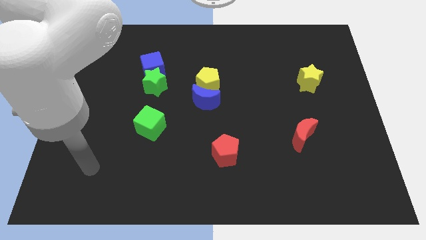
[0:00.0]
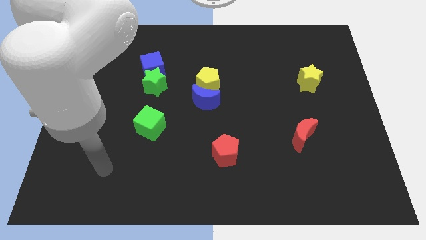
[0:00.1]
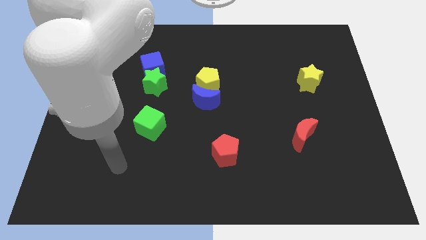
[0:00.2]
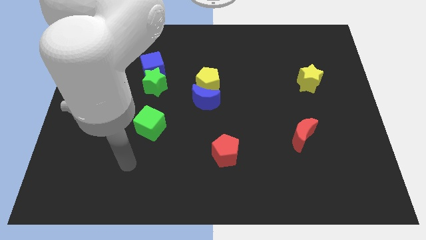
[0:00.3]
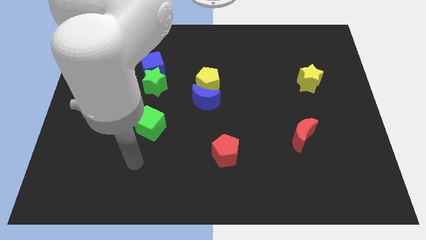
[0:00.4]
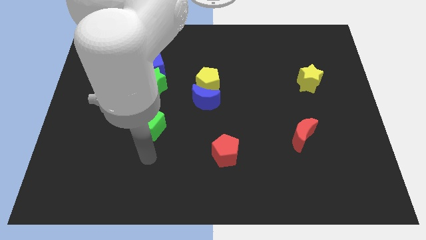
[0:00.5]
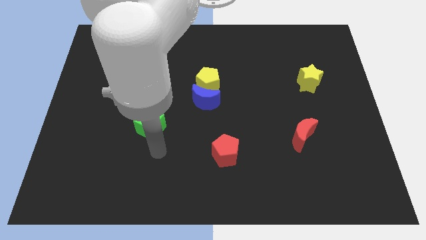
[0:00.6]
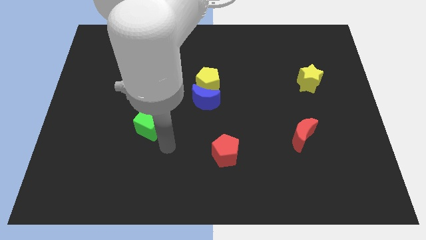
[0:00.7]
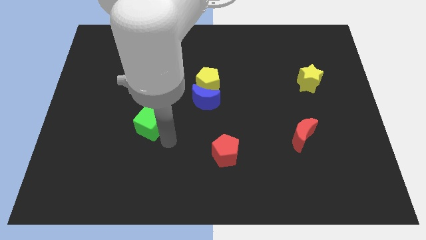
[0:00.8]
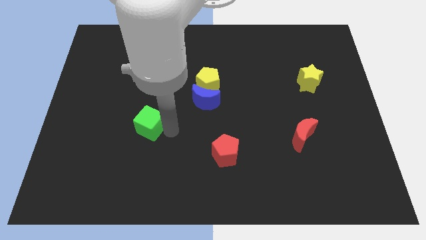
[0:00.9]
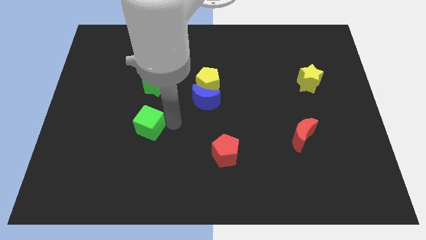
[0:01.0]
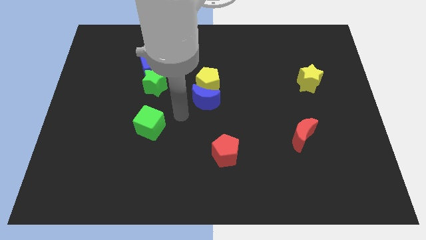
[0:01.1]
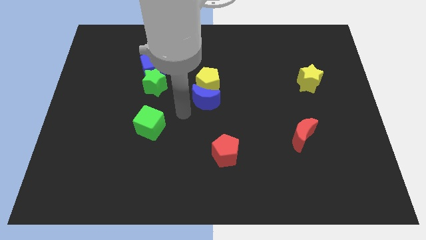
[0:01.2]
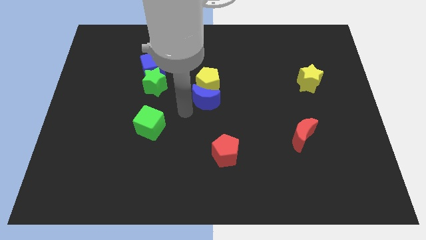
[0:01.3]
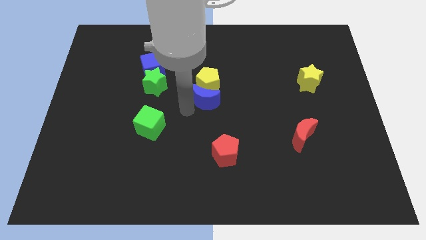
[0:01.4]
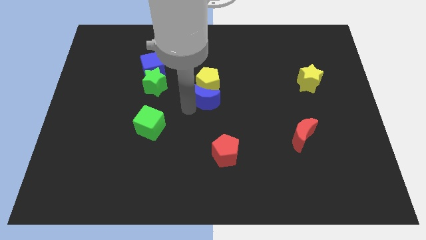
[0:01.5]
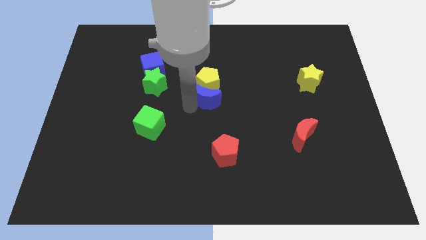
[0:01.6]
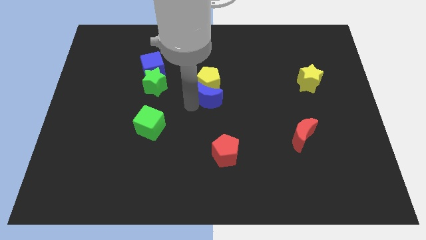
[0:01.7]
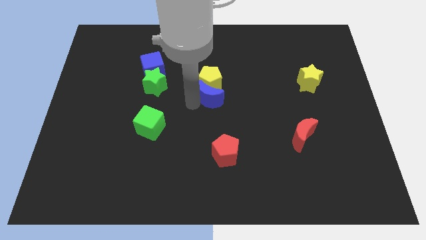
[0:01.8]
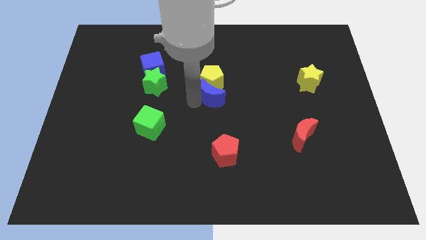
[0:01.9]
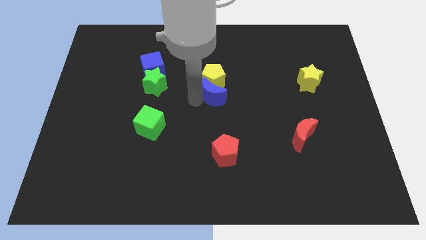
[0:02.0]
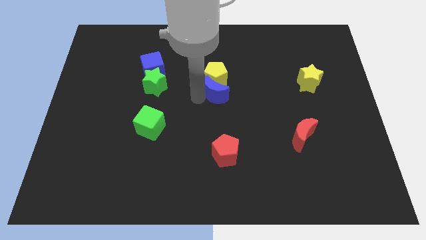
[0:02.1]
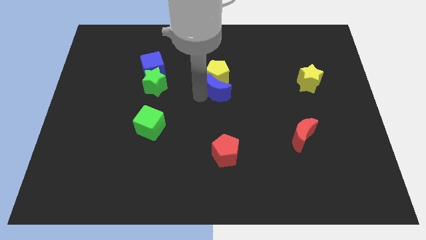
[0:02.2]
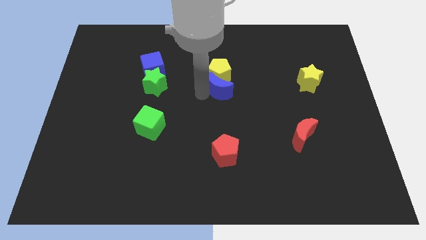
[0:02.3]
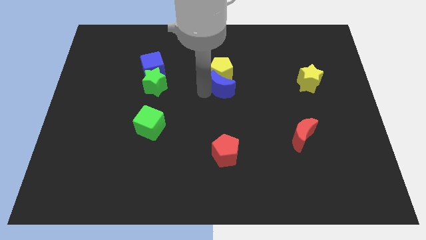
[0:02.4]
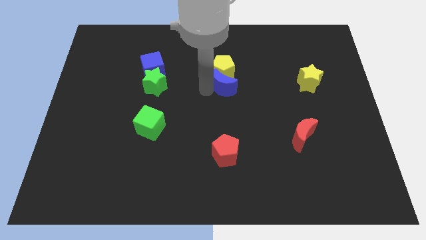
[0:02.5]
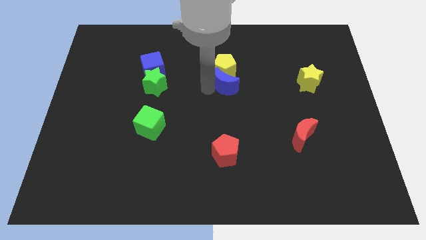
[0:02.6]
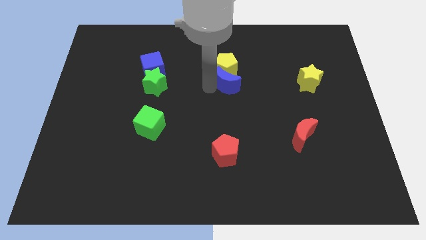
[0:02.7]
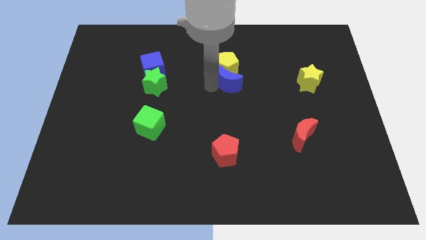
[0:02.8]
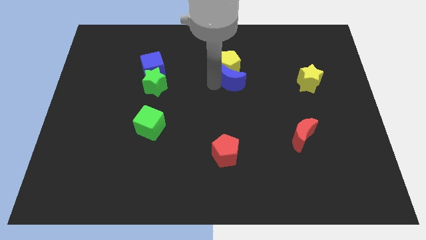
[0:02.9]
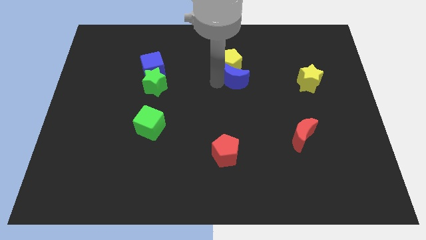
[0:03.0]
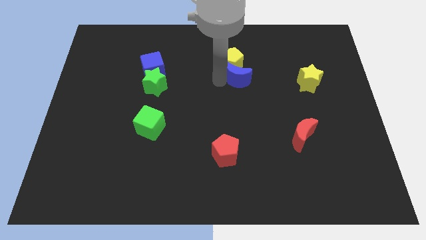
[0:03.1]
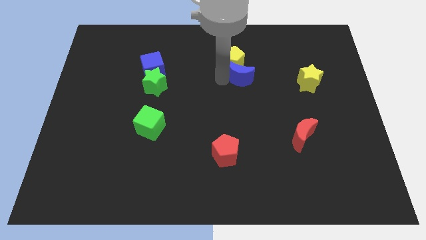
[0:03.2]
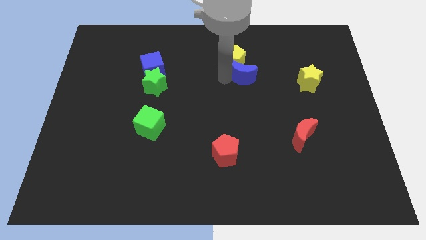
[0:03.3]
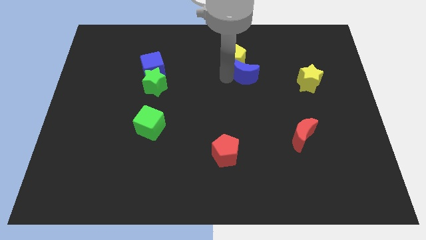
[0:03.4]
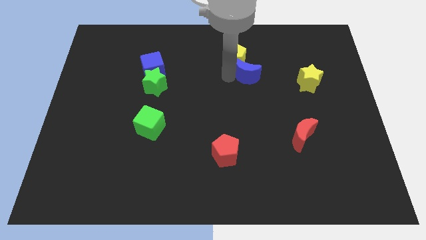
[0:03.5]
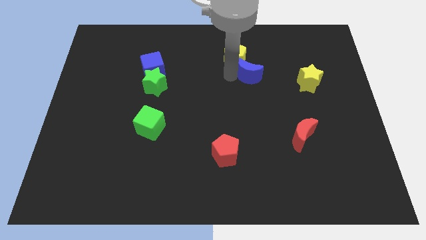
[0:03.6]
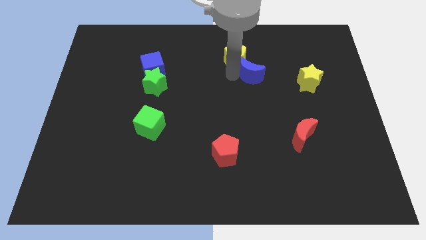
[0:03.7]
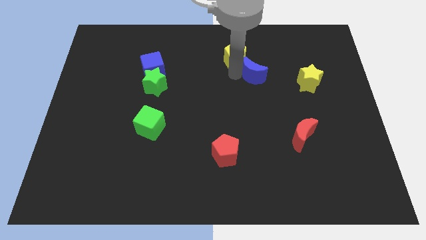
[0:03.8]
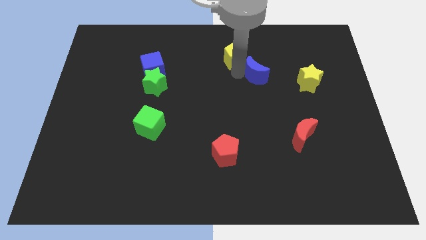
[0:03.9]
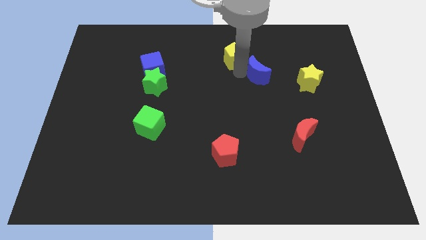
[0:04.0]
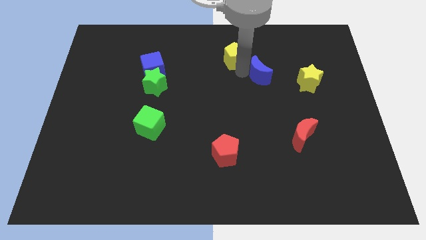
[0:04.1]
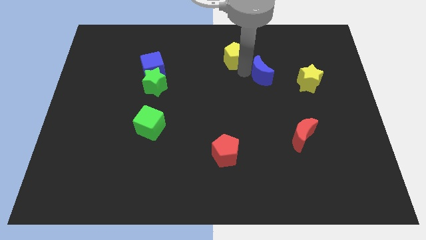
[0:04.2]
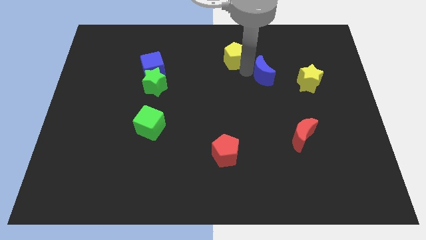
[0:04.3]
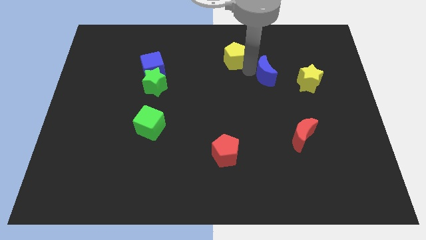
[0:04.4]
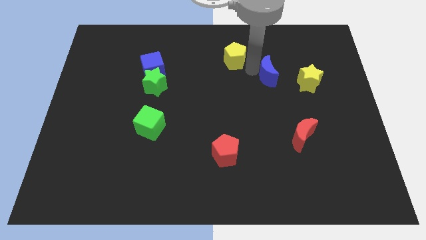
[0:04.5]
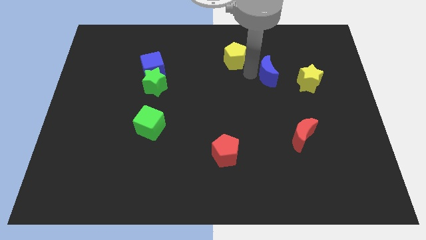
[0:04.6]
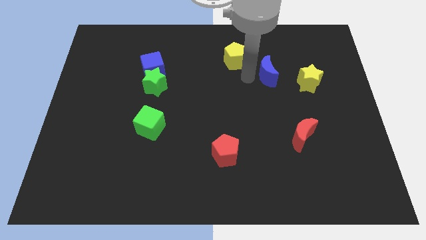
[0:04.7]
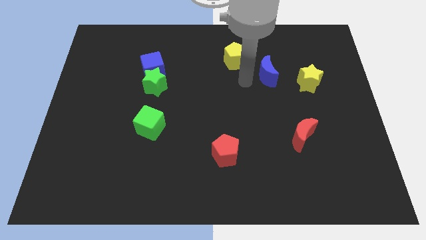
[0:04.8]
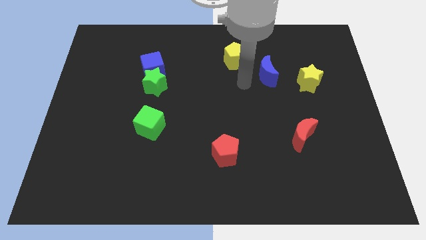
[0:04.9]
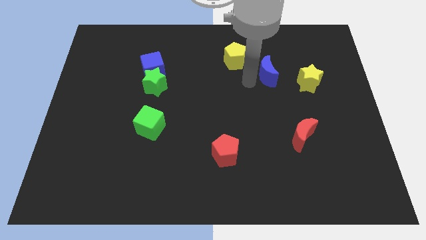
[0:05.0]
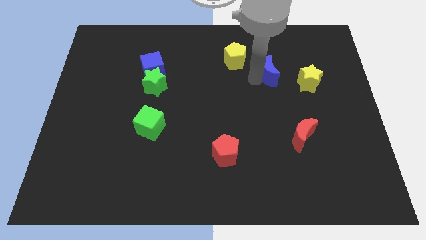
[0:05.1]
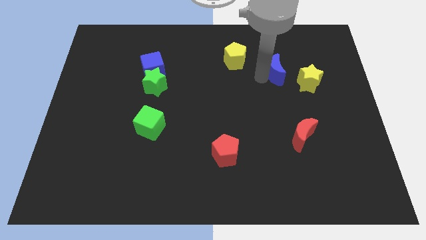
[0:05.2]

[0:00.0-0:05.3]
slide the blue moon to the top left of the yellow star

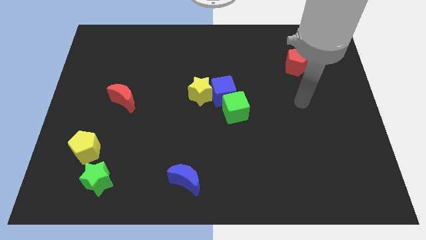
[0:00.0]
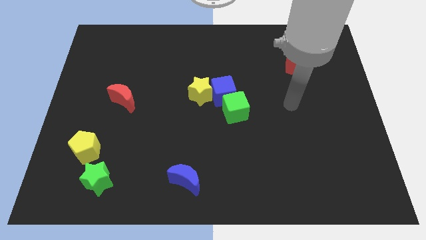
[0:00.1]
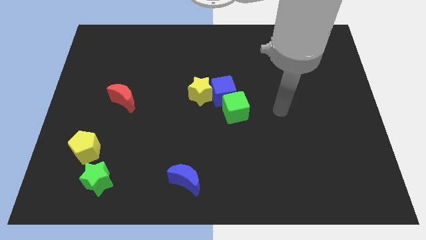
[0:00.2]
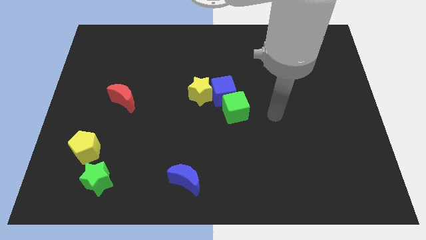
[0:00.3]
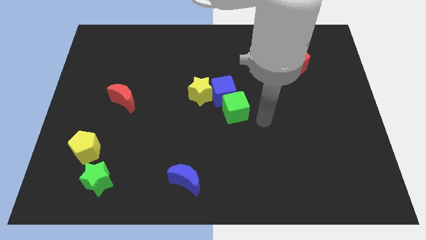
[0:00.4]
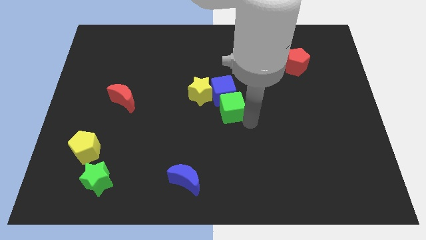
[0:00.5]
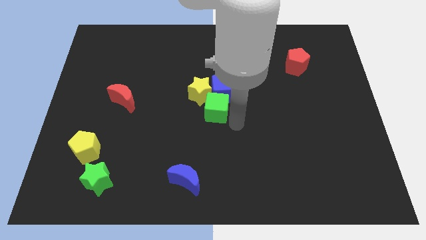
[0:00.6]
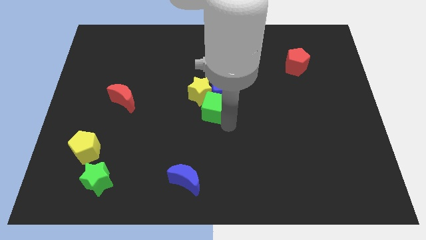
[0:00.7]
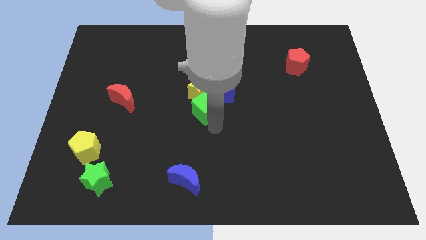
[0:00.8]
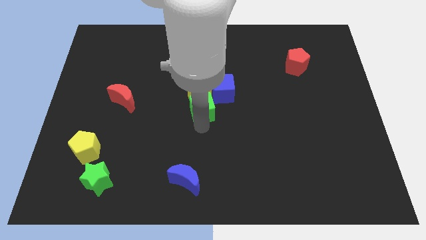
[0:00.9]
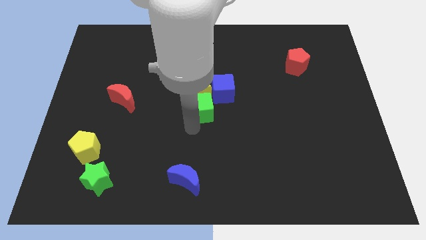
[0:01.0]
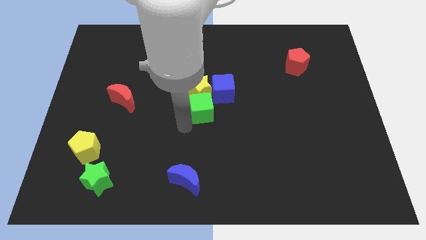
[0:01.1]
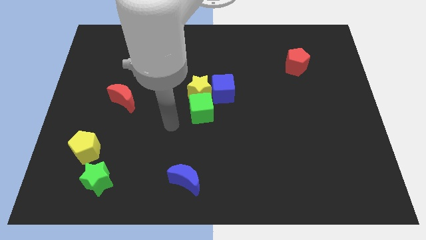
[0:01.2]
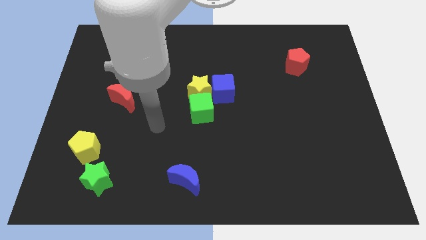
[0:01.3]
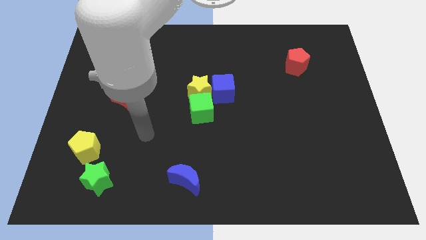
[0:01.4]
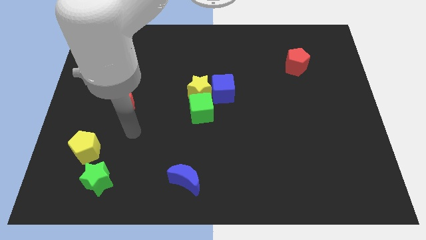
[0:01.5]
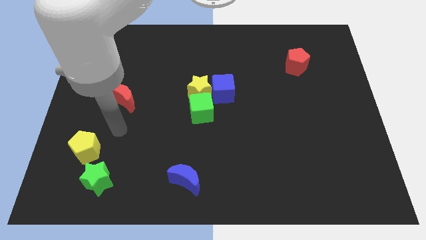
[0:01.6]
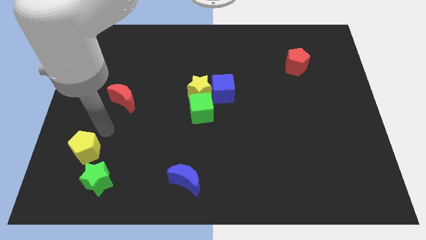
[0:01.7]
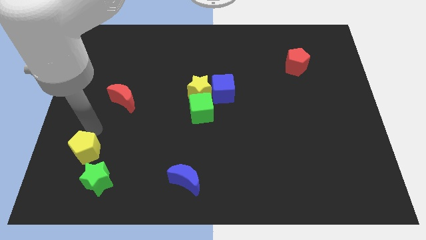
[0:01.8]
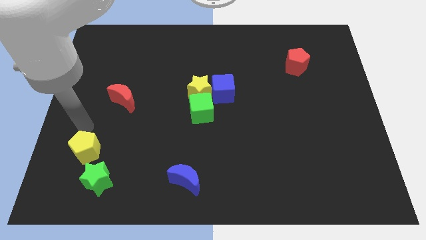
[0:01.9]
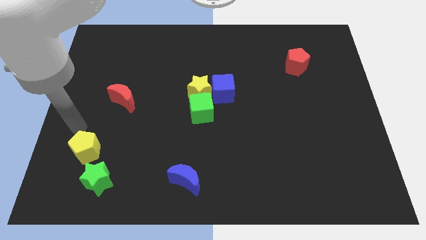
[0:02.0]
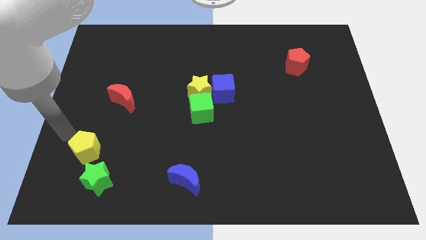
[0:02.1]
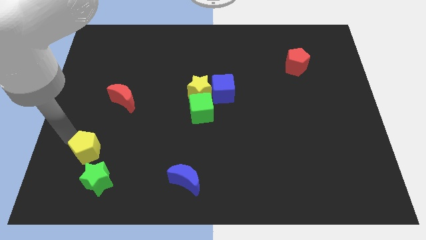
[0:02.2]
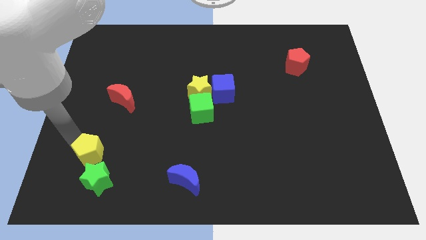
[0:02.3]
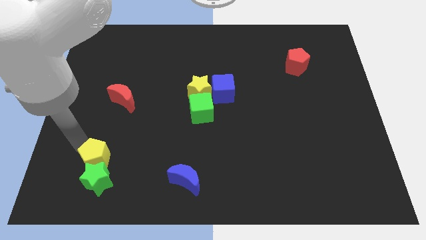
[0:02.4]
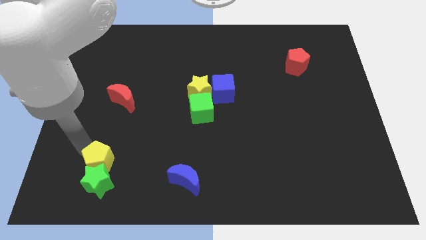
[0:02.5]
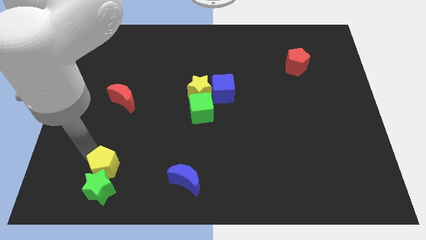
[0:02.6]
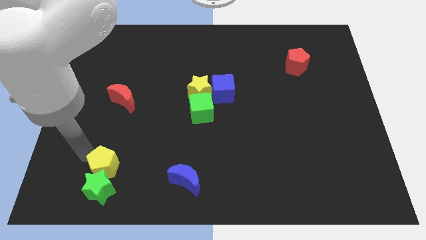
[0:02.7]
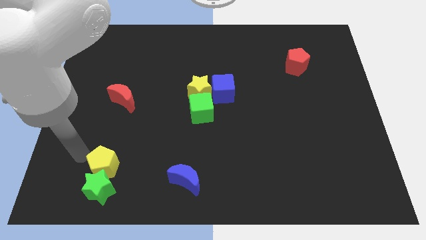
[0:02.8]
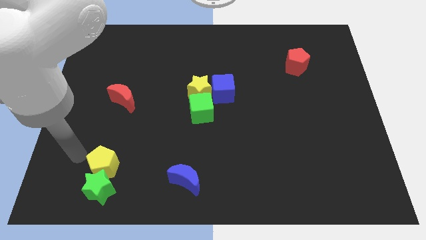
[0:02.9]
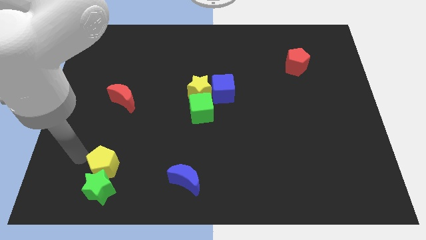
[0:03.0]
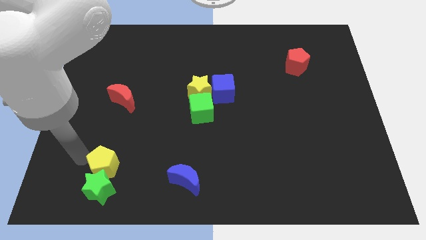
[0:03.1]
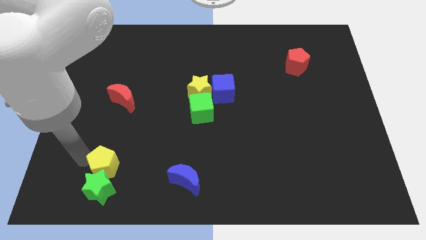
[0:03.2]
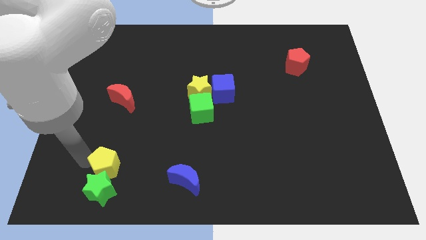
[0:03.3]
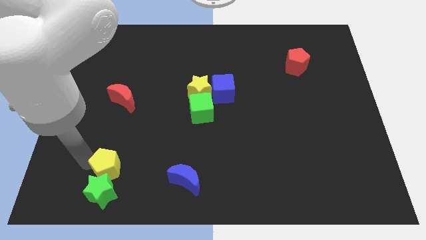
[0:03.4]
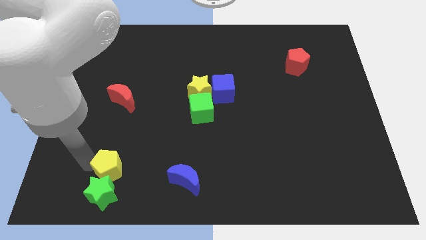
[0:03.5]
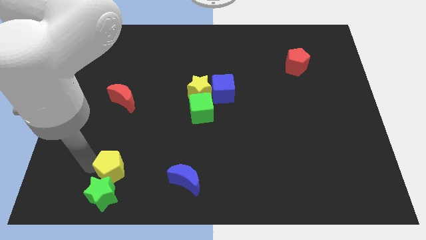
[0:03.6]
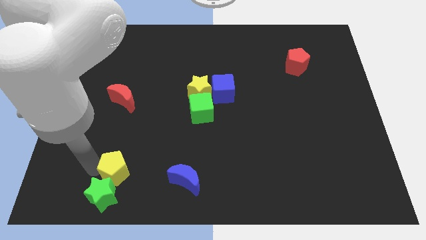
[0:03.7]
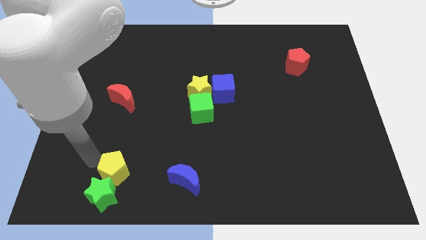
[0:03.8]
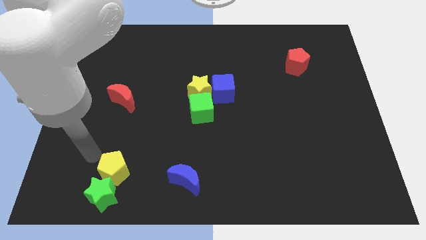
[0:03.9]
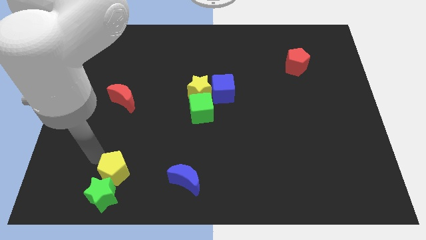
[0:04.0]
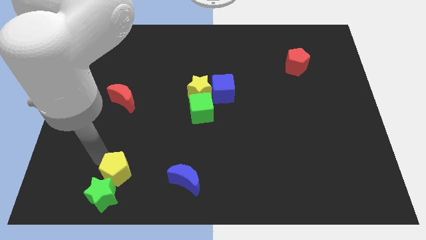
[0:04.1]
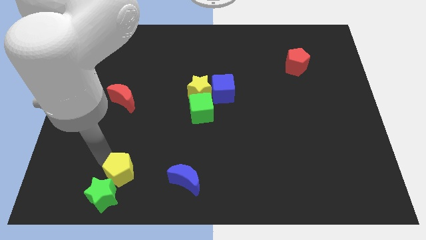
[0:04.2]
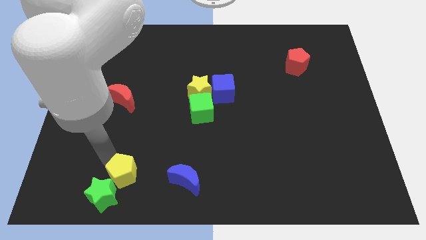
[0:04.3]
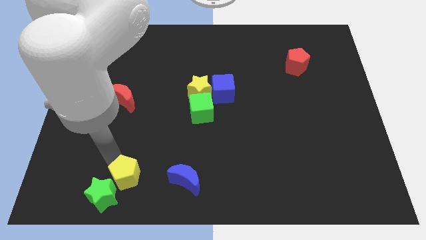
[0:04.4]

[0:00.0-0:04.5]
move the yellow pentagon just right of the green star
